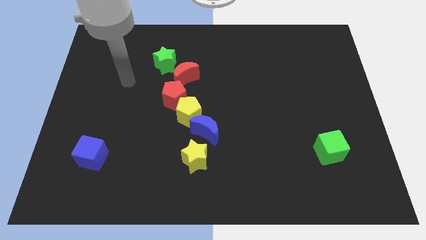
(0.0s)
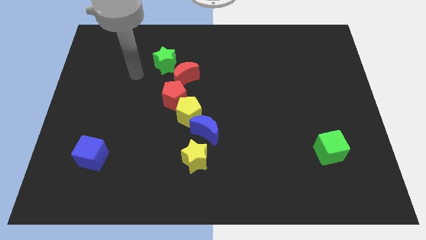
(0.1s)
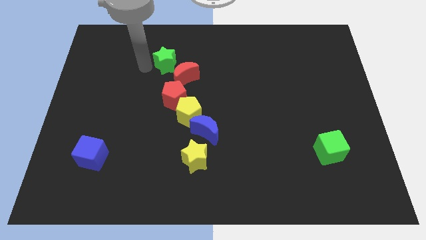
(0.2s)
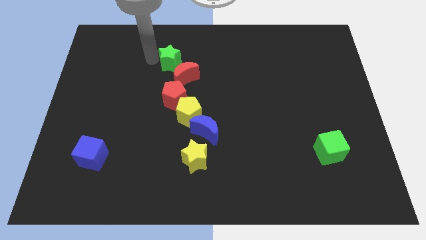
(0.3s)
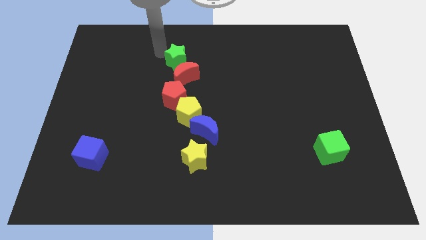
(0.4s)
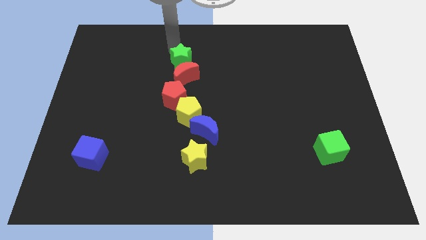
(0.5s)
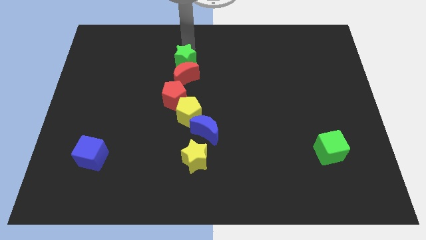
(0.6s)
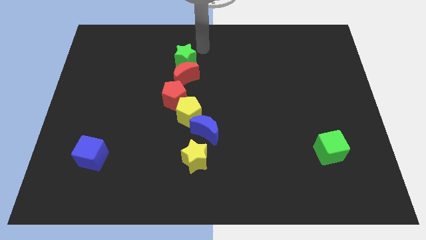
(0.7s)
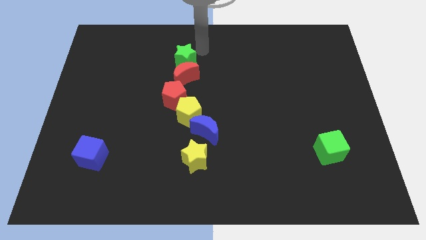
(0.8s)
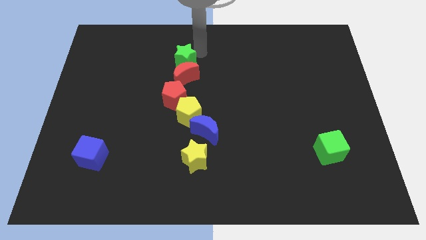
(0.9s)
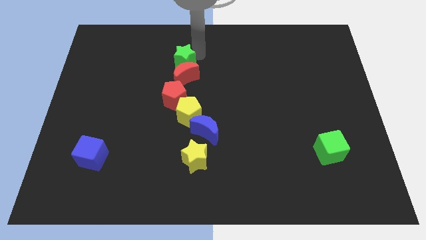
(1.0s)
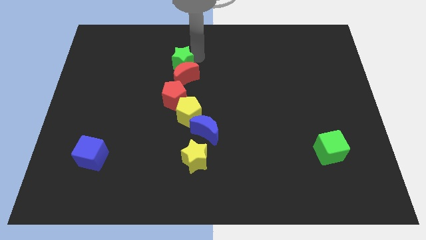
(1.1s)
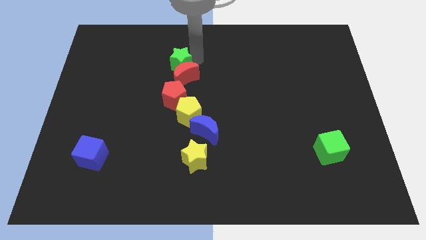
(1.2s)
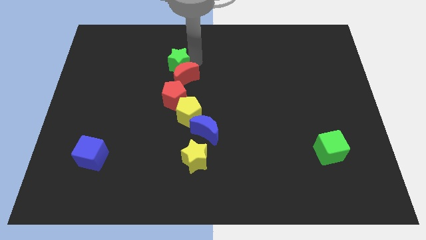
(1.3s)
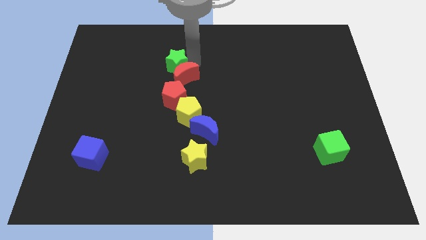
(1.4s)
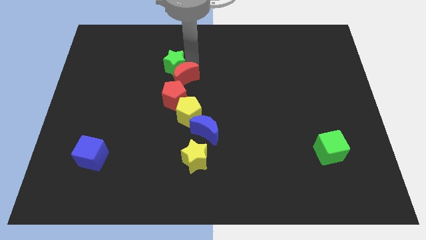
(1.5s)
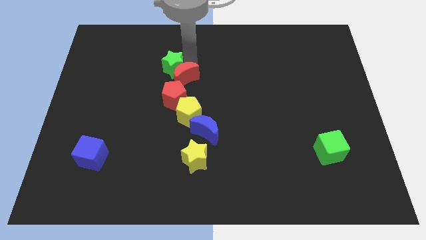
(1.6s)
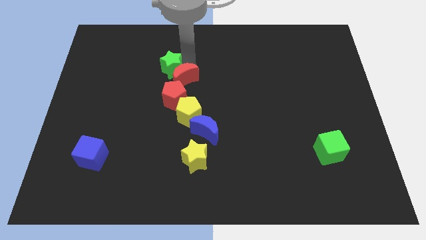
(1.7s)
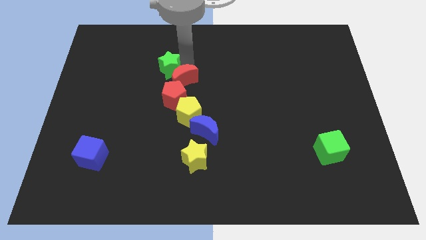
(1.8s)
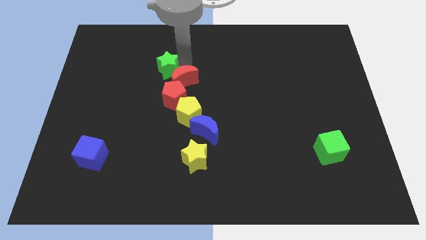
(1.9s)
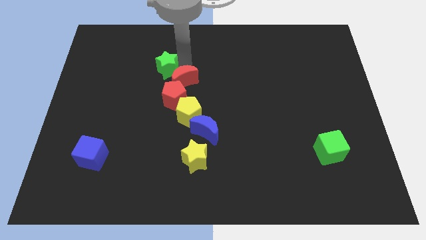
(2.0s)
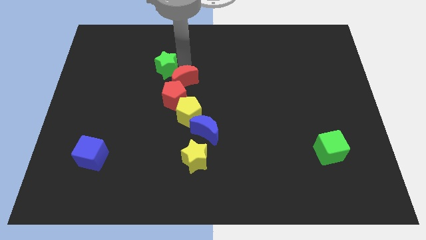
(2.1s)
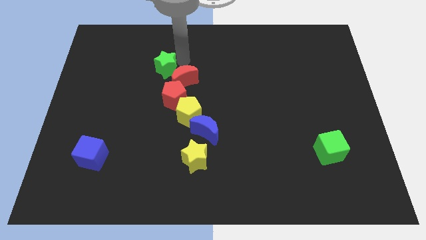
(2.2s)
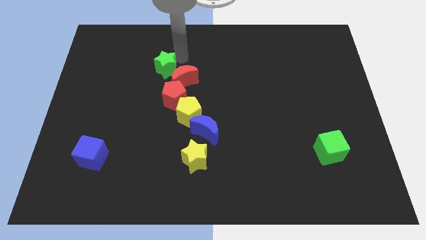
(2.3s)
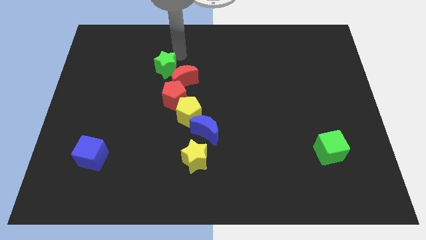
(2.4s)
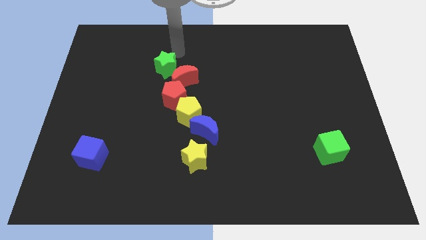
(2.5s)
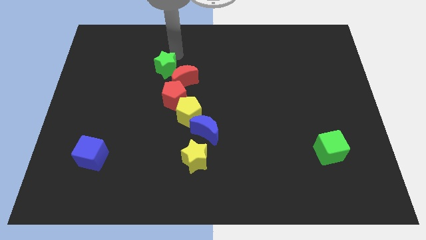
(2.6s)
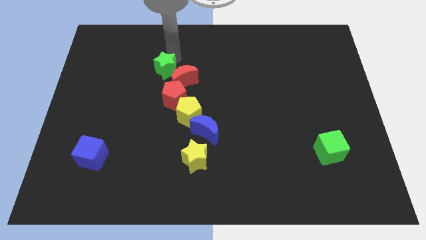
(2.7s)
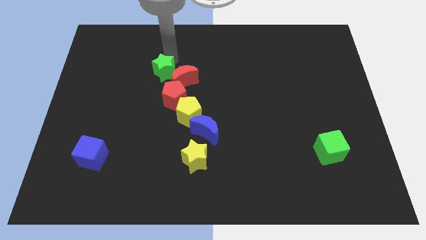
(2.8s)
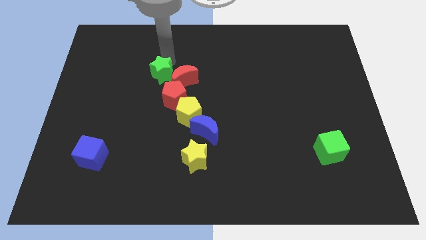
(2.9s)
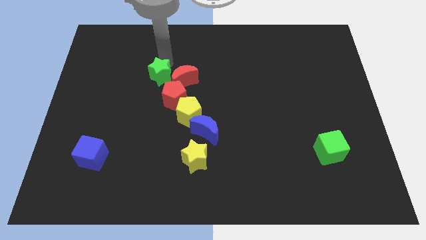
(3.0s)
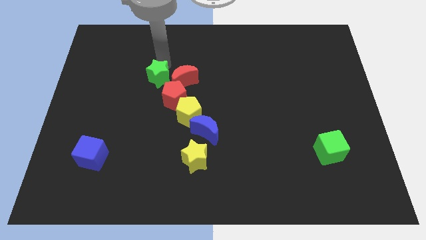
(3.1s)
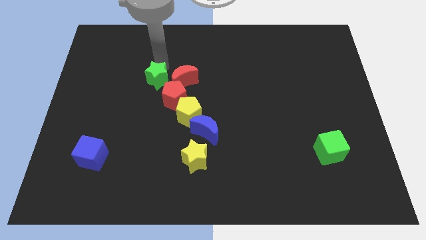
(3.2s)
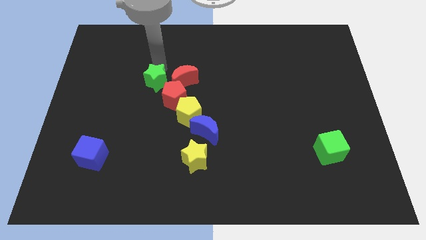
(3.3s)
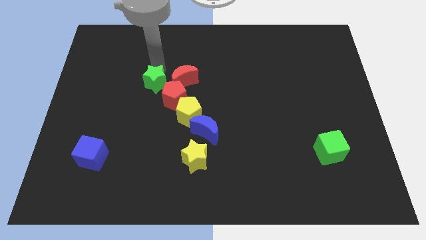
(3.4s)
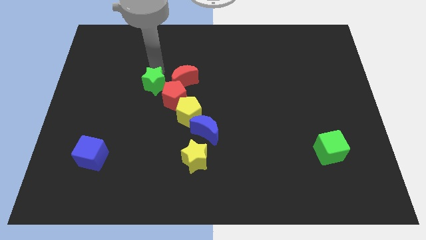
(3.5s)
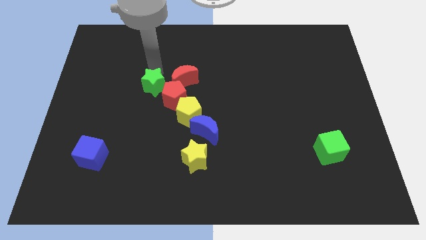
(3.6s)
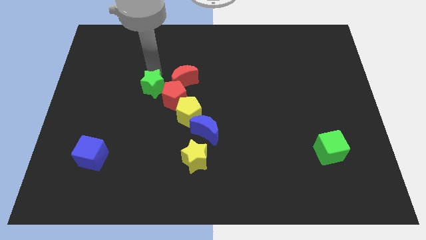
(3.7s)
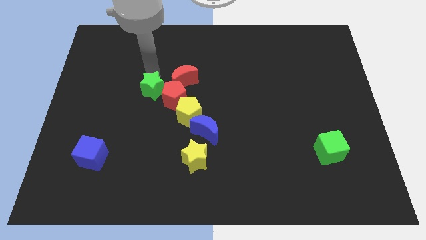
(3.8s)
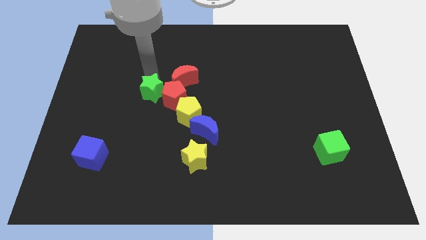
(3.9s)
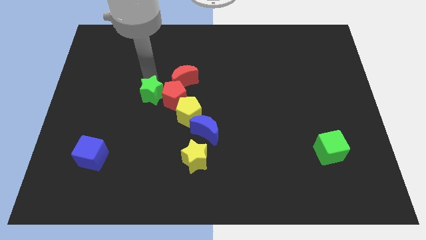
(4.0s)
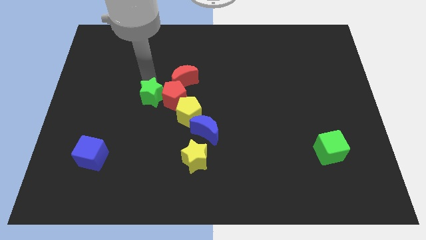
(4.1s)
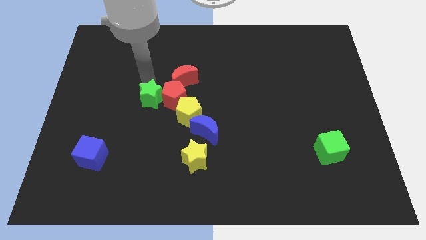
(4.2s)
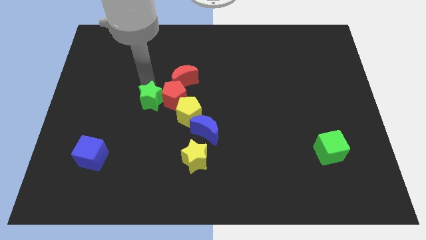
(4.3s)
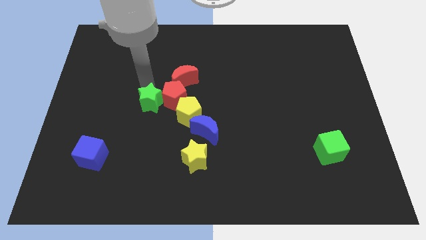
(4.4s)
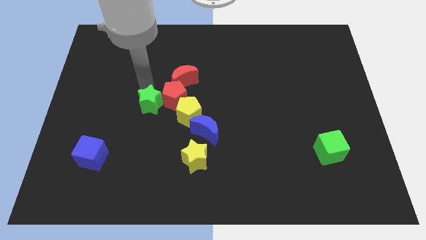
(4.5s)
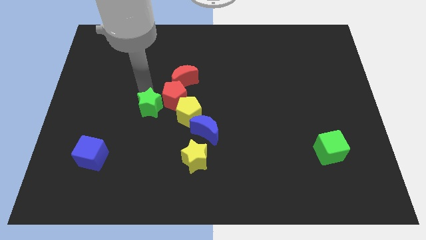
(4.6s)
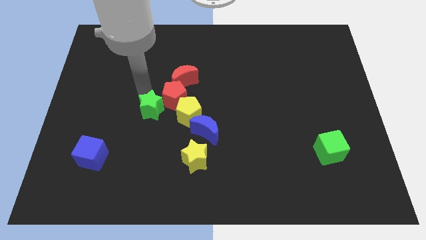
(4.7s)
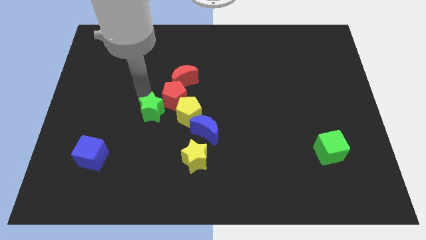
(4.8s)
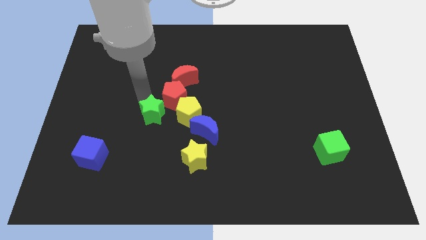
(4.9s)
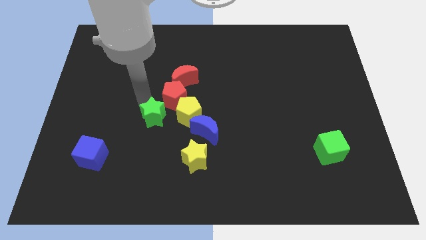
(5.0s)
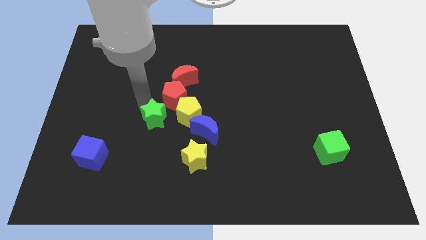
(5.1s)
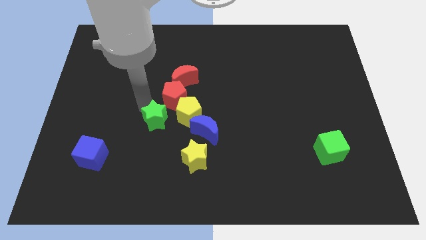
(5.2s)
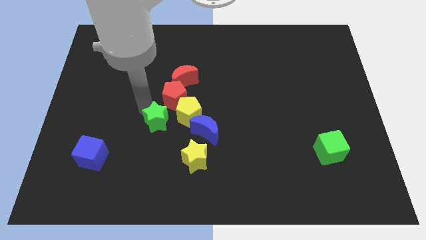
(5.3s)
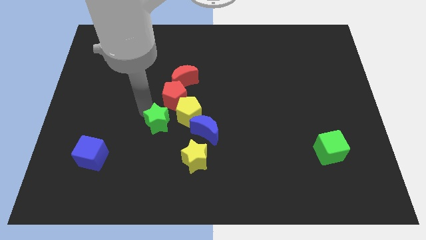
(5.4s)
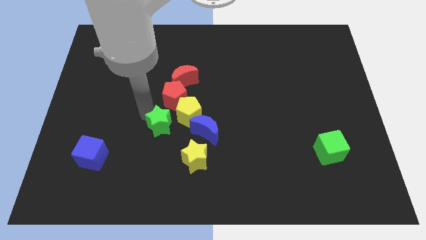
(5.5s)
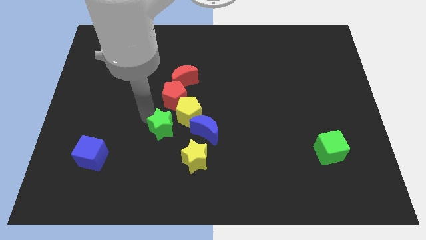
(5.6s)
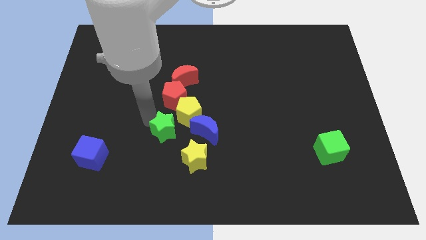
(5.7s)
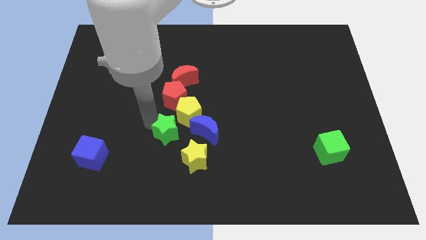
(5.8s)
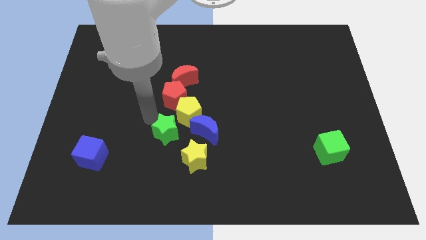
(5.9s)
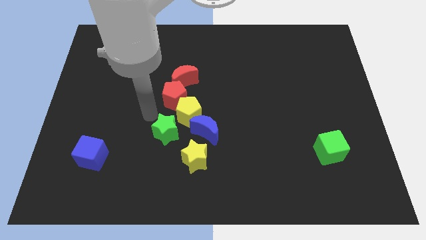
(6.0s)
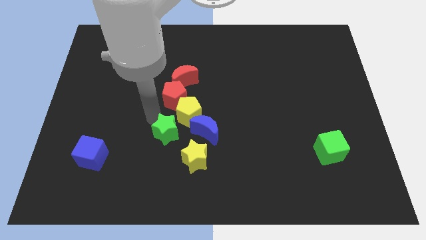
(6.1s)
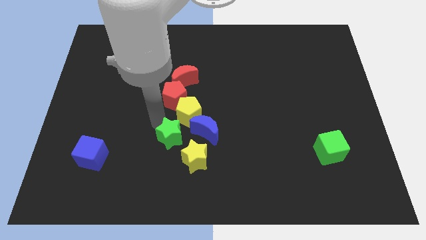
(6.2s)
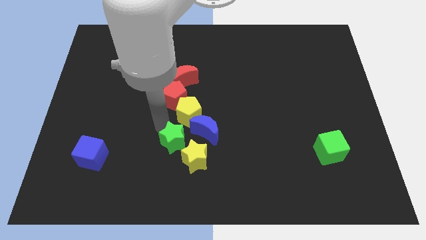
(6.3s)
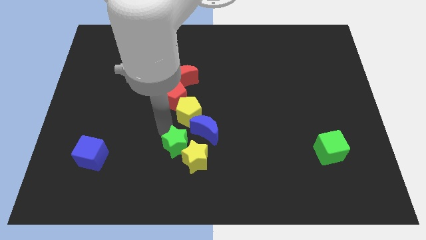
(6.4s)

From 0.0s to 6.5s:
push the green star to the yellow star

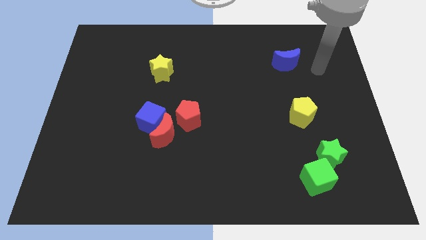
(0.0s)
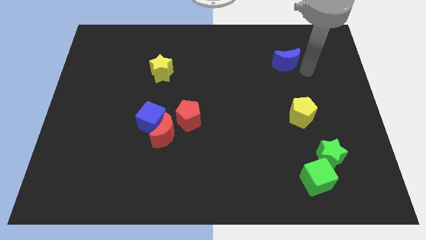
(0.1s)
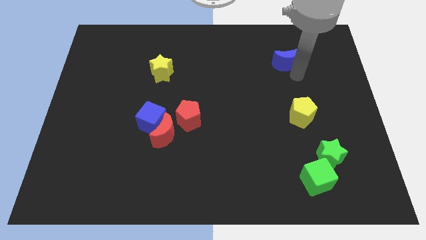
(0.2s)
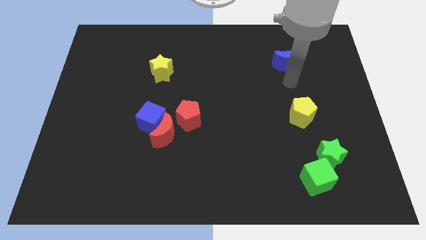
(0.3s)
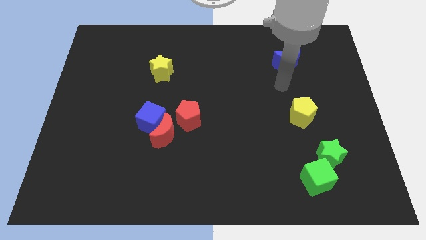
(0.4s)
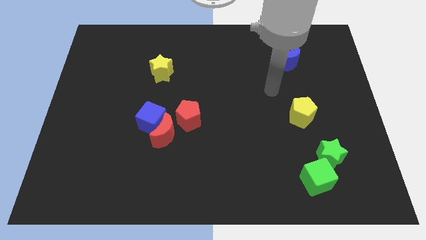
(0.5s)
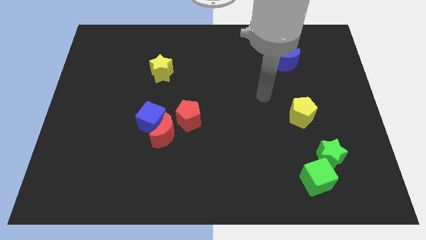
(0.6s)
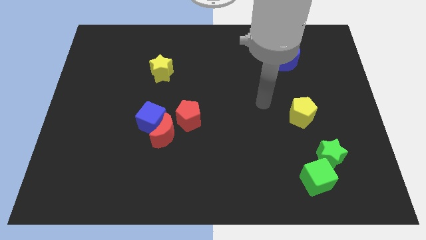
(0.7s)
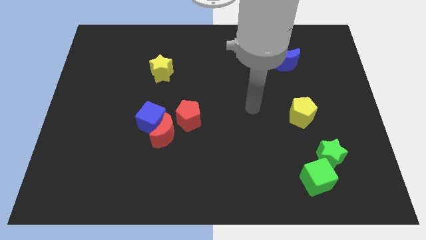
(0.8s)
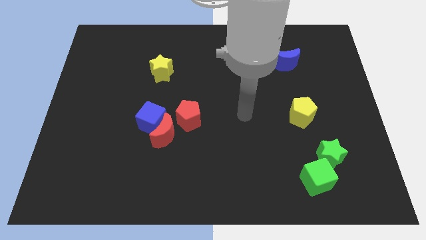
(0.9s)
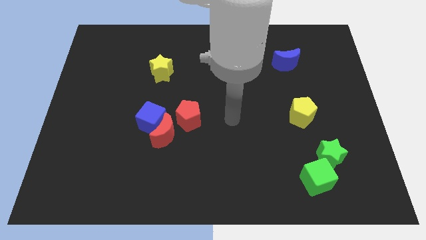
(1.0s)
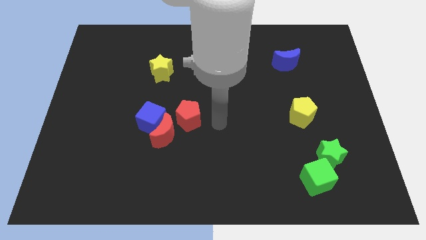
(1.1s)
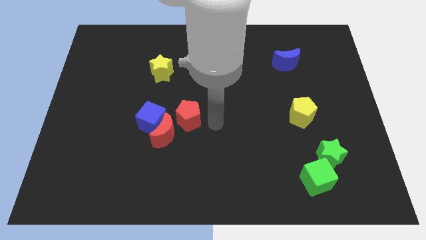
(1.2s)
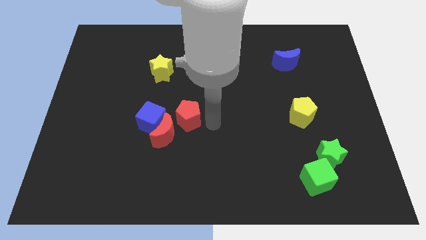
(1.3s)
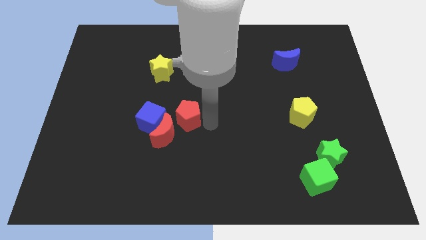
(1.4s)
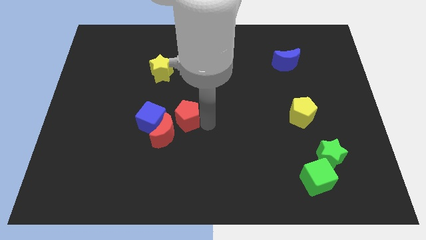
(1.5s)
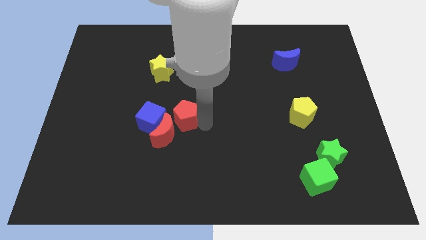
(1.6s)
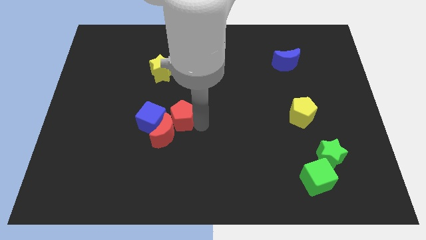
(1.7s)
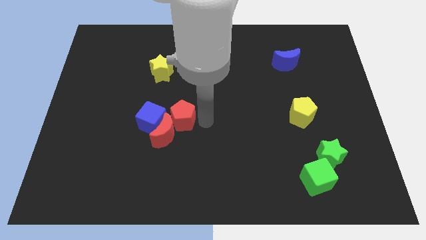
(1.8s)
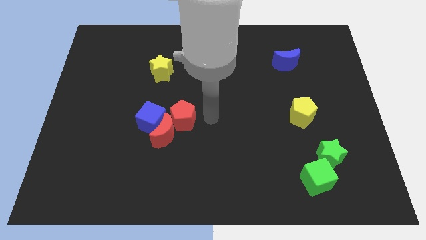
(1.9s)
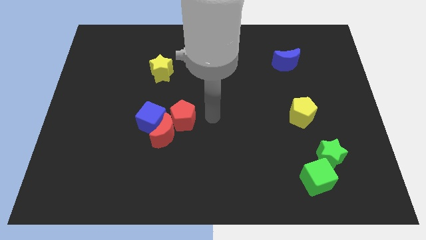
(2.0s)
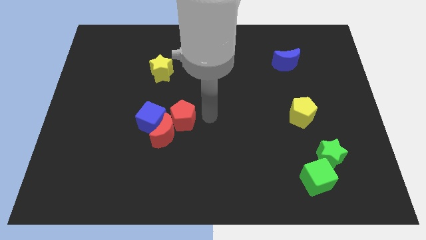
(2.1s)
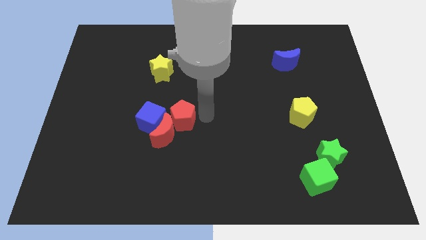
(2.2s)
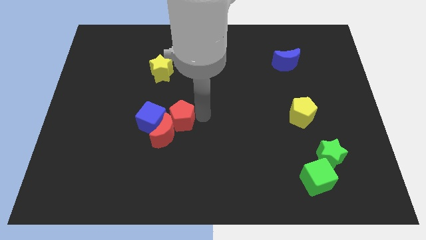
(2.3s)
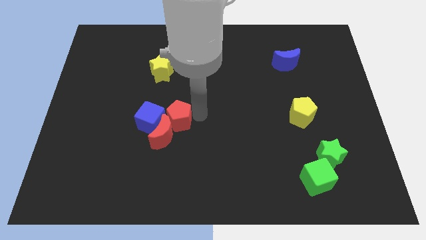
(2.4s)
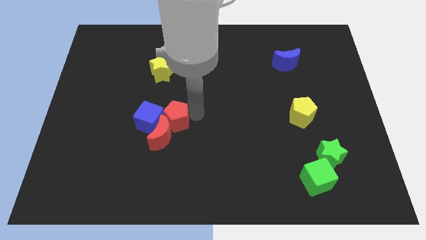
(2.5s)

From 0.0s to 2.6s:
put the red pentagon next to the blue cube
